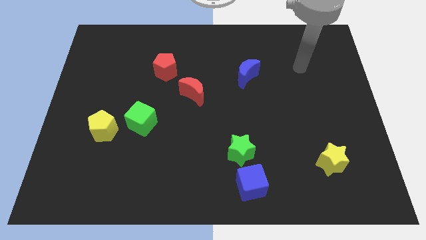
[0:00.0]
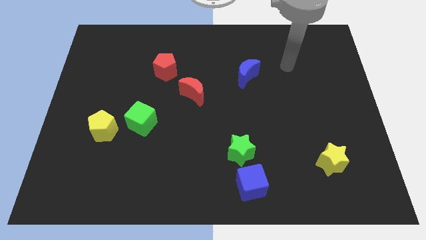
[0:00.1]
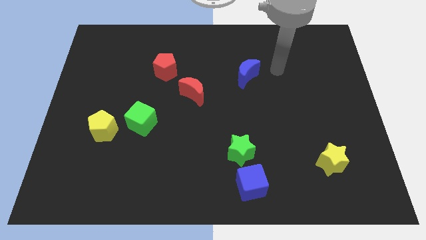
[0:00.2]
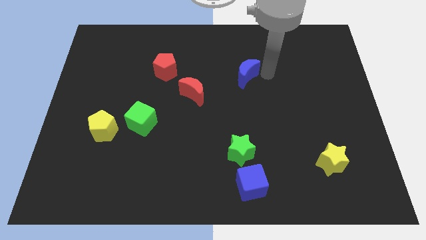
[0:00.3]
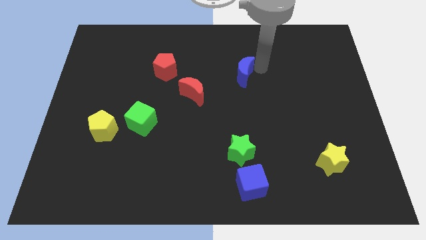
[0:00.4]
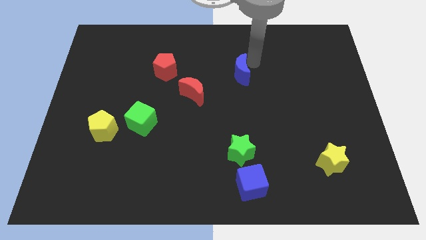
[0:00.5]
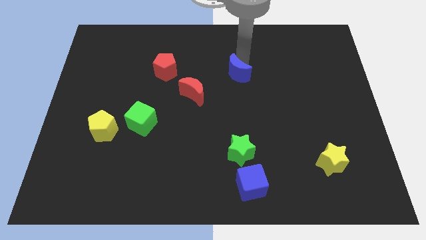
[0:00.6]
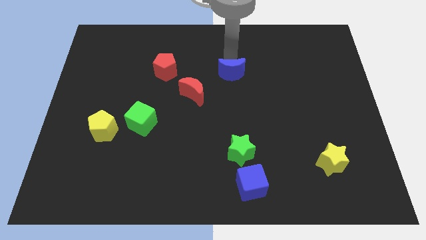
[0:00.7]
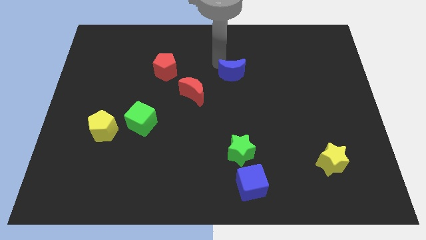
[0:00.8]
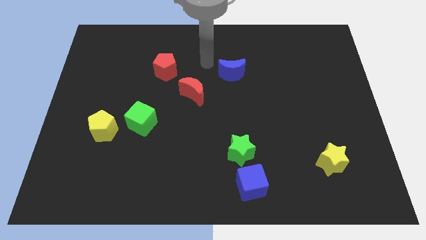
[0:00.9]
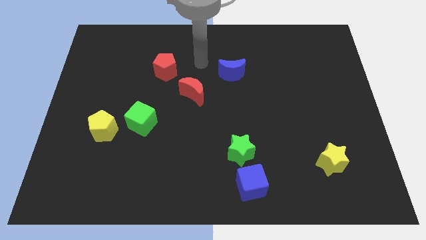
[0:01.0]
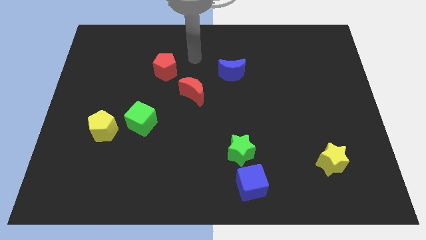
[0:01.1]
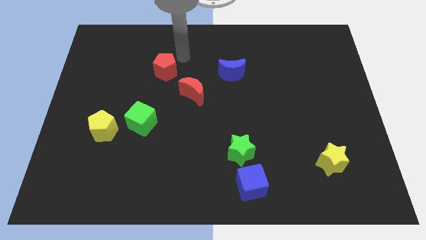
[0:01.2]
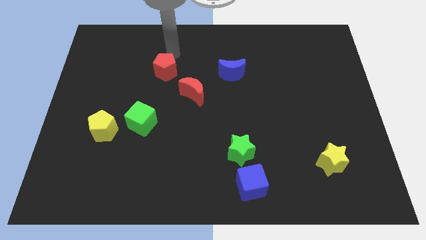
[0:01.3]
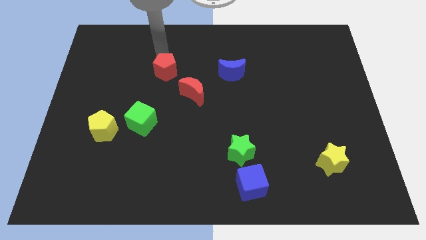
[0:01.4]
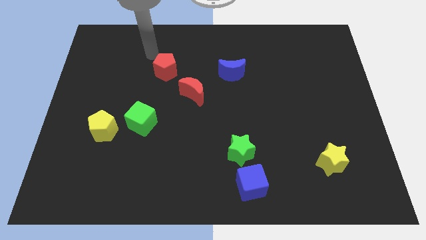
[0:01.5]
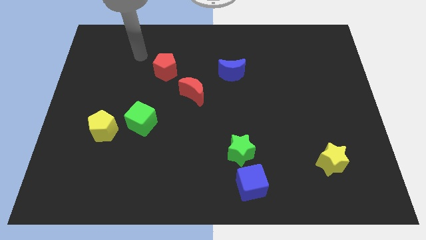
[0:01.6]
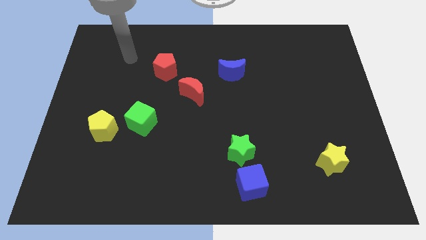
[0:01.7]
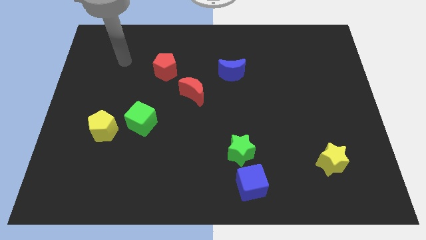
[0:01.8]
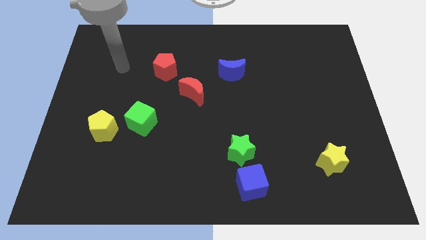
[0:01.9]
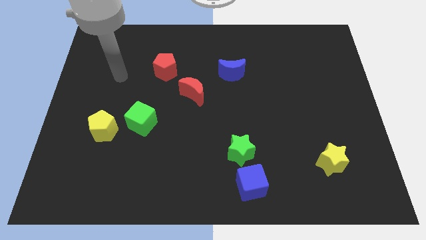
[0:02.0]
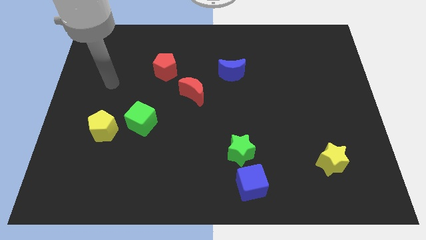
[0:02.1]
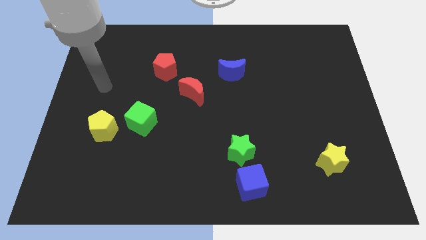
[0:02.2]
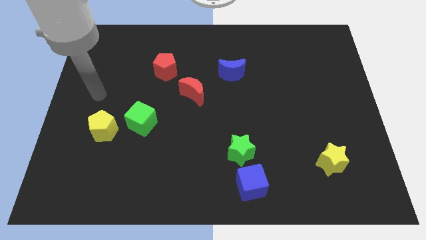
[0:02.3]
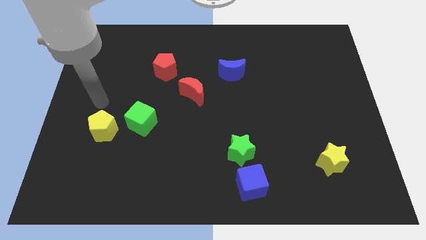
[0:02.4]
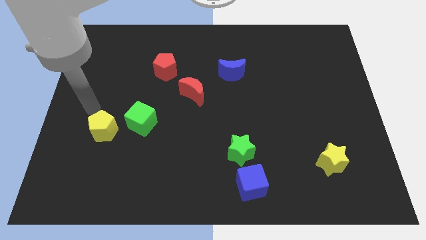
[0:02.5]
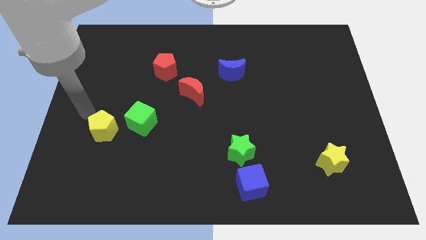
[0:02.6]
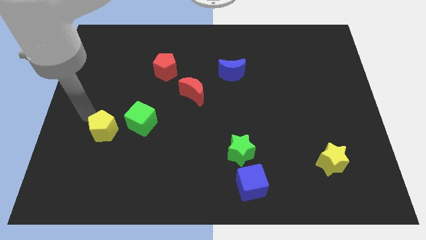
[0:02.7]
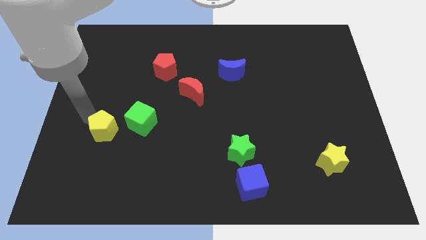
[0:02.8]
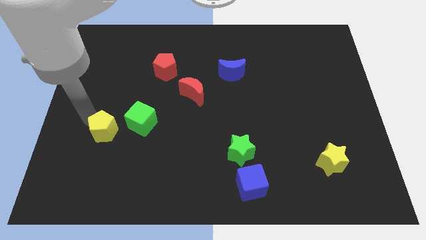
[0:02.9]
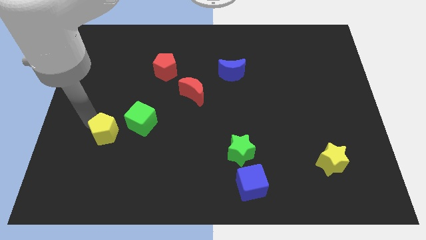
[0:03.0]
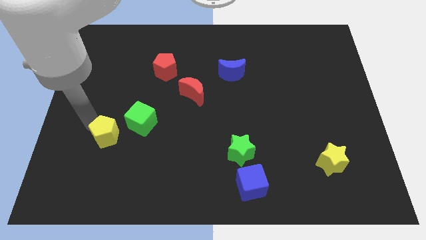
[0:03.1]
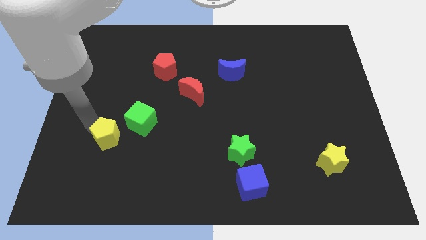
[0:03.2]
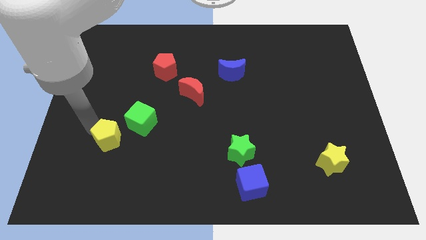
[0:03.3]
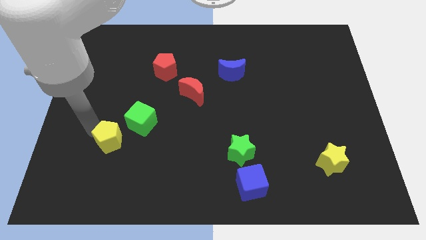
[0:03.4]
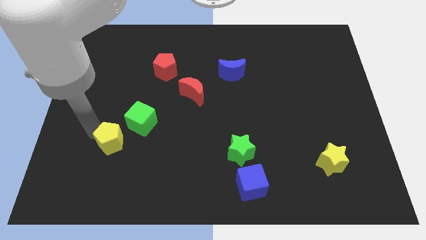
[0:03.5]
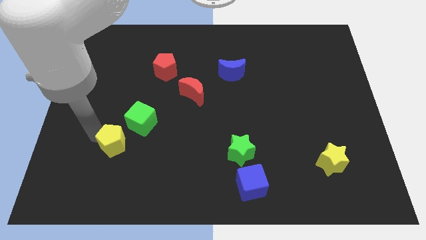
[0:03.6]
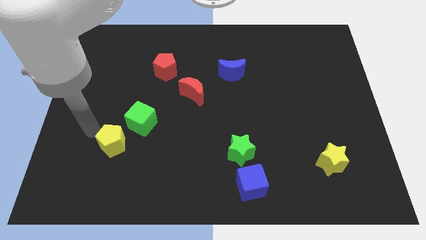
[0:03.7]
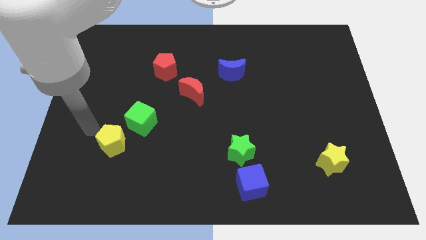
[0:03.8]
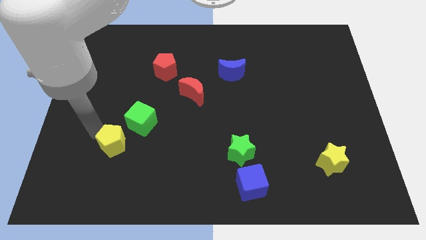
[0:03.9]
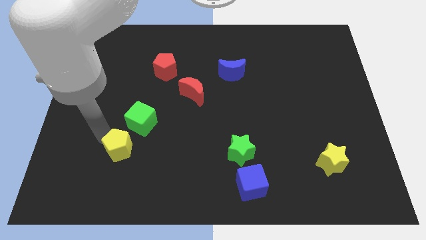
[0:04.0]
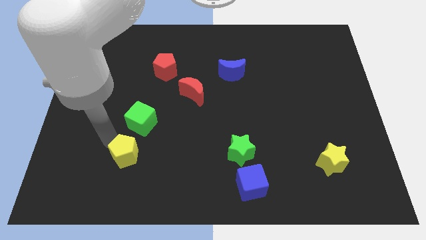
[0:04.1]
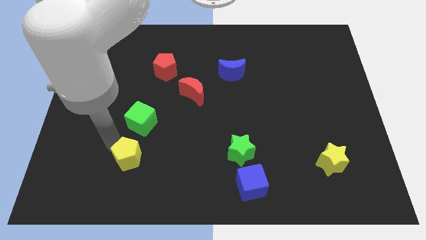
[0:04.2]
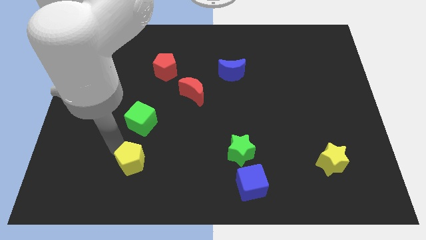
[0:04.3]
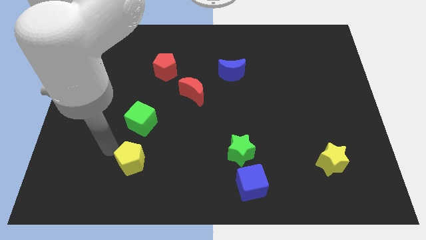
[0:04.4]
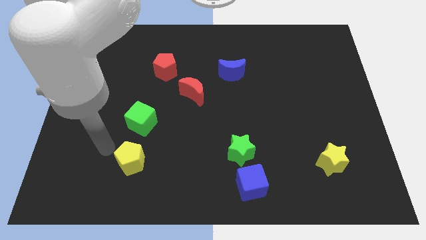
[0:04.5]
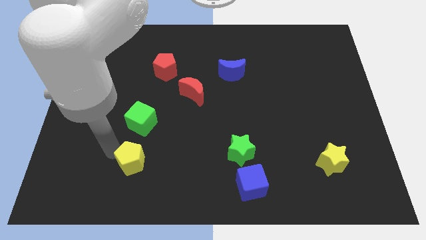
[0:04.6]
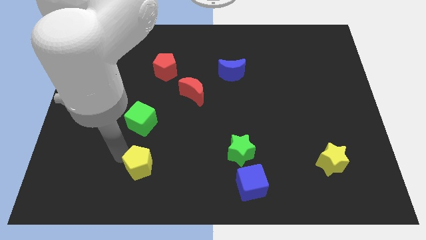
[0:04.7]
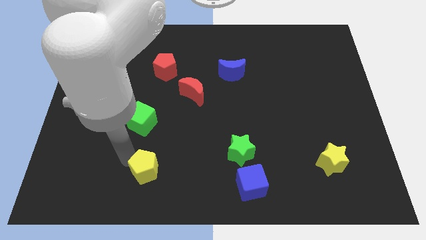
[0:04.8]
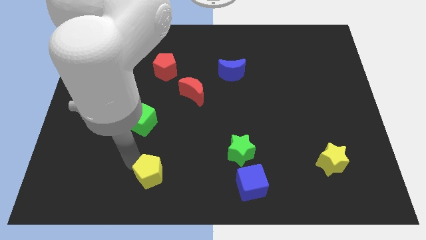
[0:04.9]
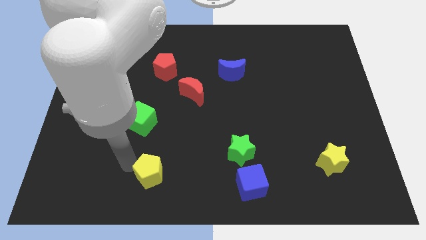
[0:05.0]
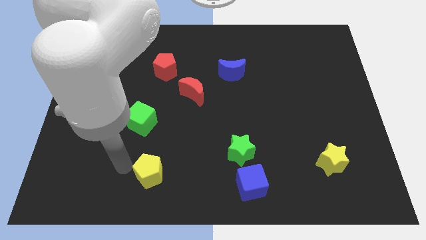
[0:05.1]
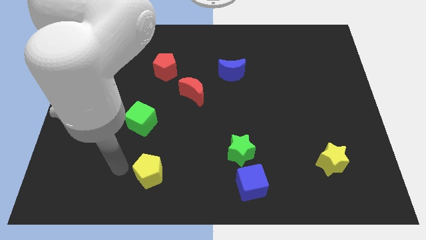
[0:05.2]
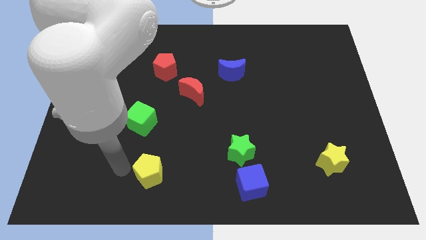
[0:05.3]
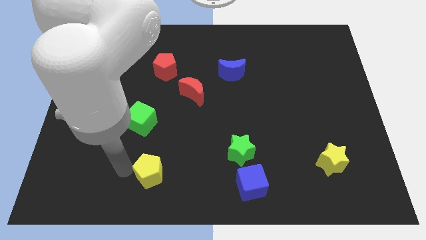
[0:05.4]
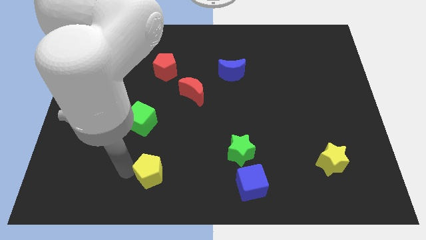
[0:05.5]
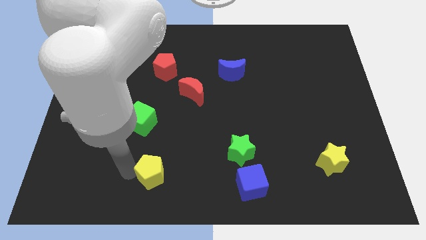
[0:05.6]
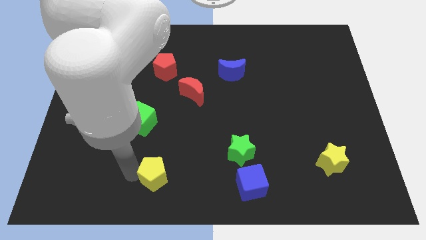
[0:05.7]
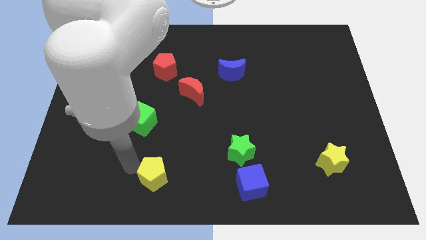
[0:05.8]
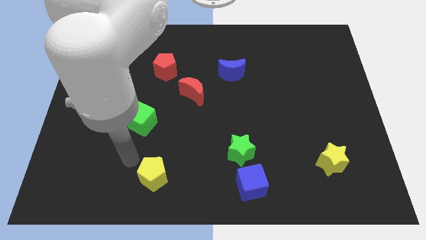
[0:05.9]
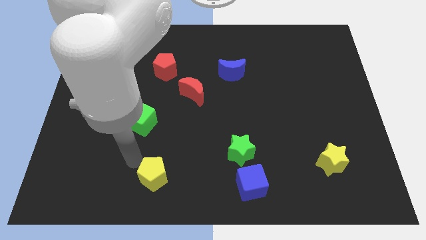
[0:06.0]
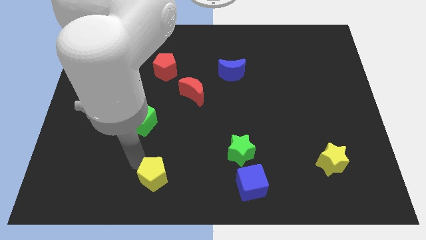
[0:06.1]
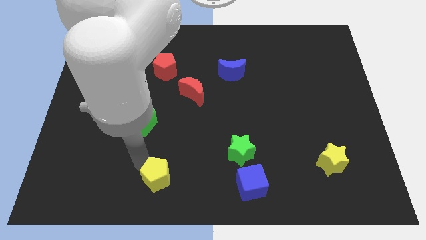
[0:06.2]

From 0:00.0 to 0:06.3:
move the yellow pentagon to the bottom side
